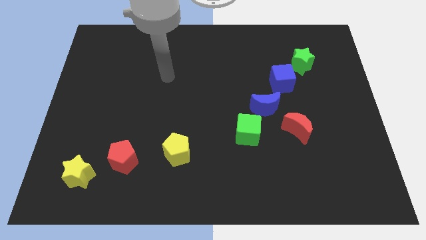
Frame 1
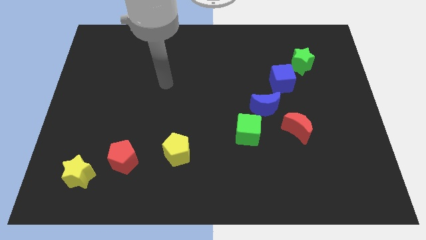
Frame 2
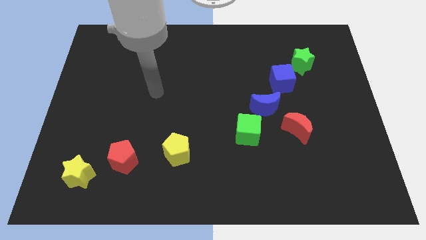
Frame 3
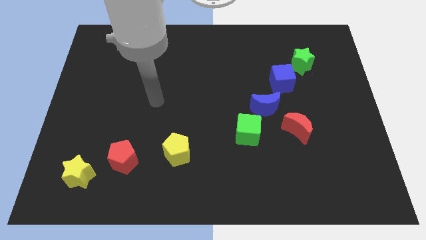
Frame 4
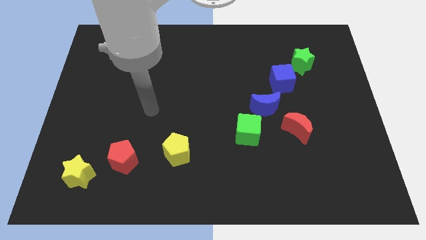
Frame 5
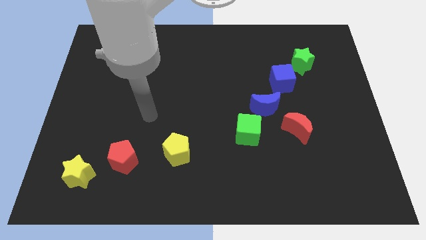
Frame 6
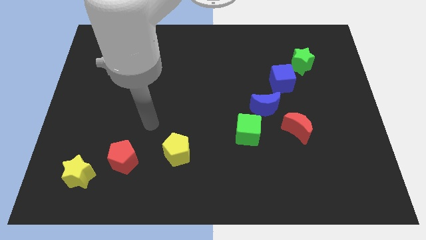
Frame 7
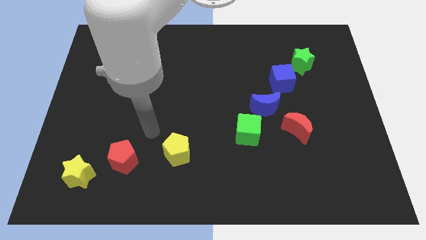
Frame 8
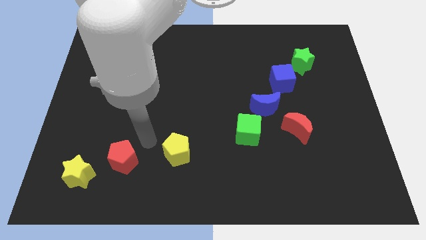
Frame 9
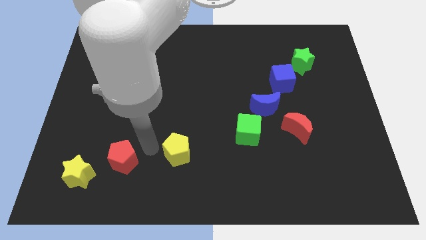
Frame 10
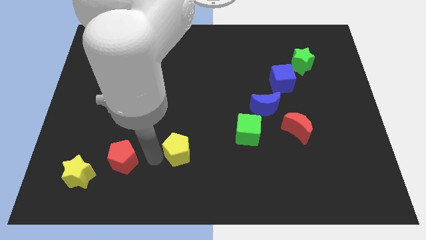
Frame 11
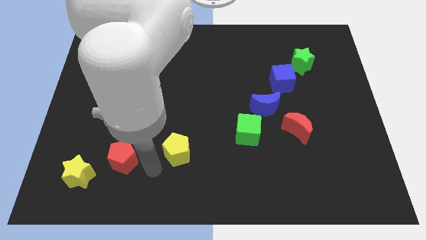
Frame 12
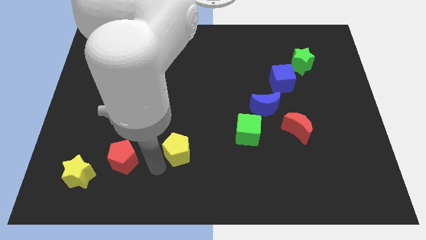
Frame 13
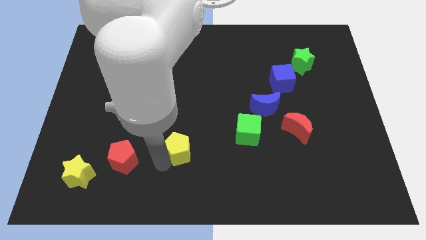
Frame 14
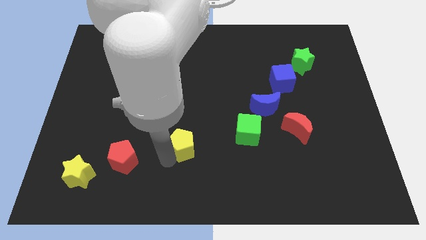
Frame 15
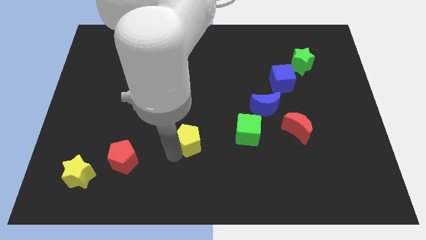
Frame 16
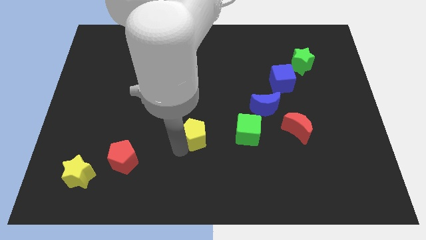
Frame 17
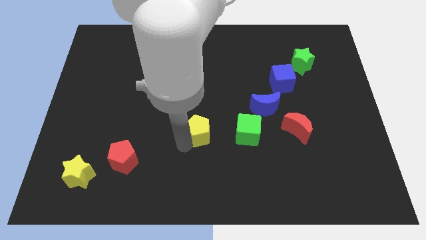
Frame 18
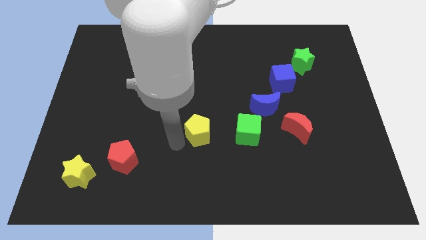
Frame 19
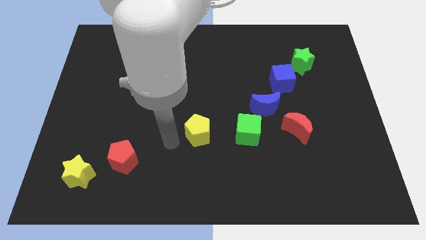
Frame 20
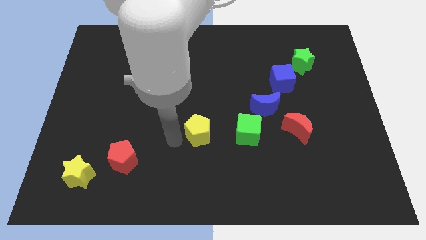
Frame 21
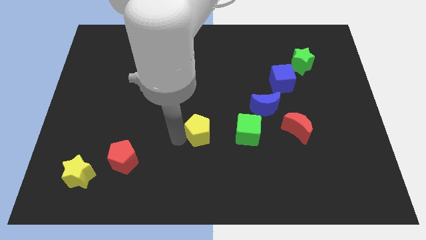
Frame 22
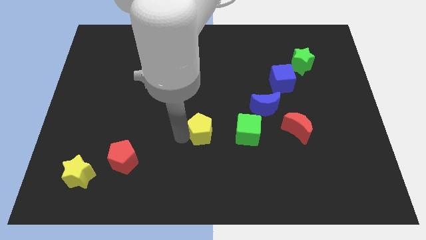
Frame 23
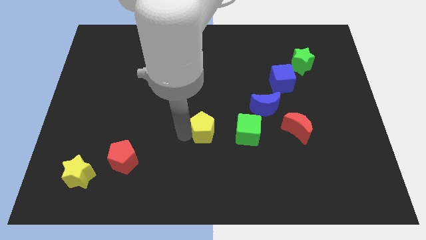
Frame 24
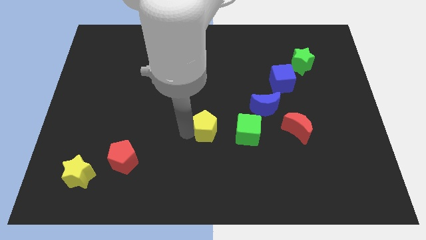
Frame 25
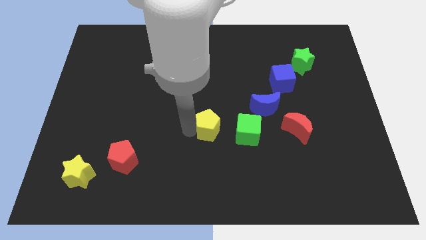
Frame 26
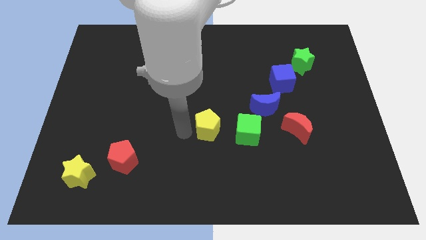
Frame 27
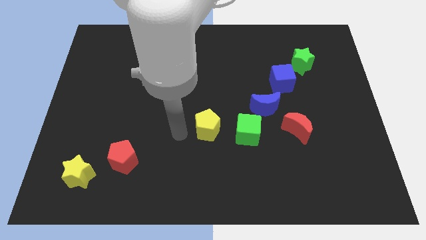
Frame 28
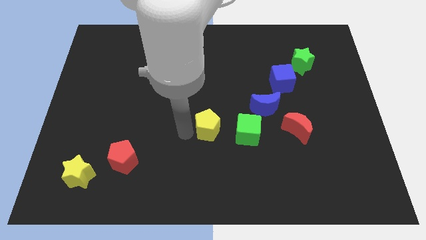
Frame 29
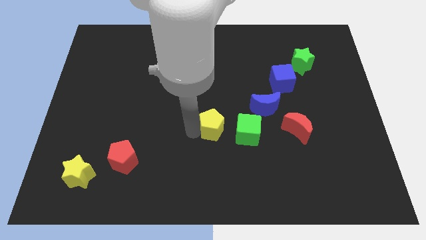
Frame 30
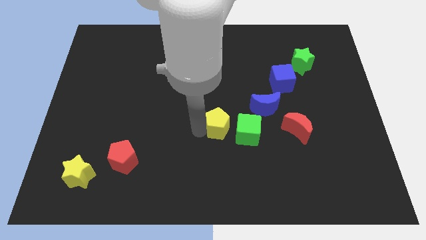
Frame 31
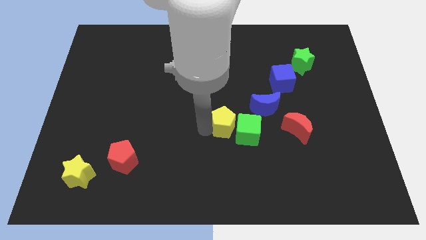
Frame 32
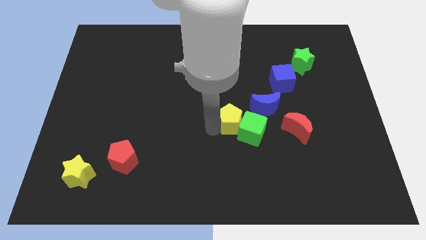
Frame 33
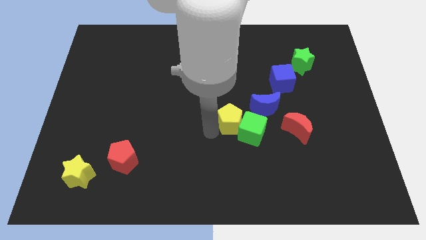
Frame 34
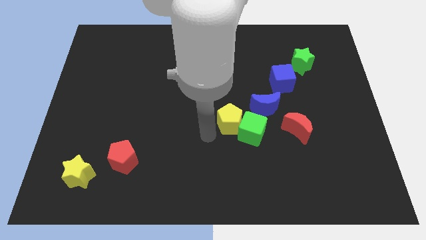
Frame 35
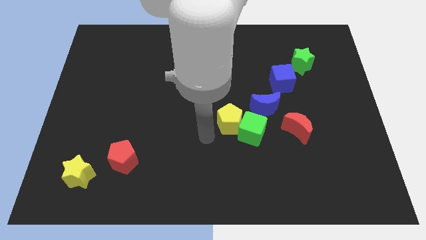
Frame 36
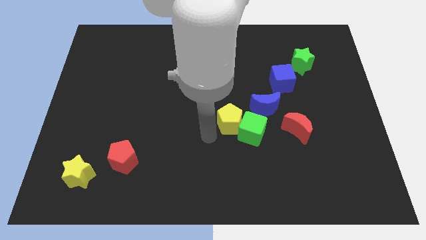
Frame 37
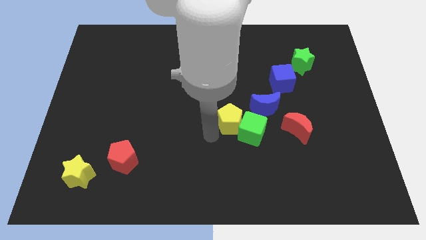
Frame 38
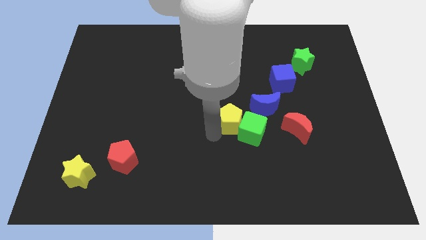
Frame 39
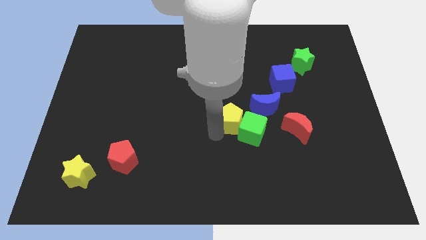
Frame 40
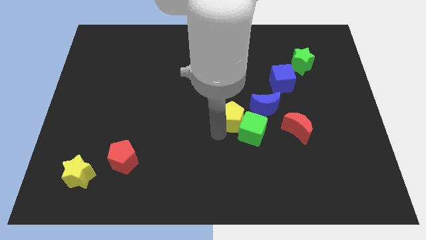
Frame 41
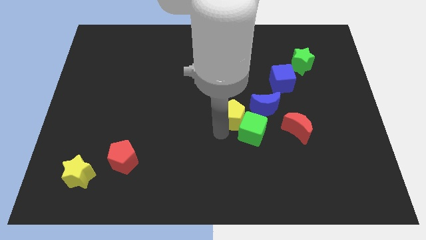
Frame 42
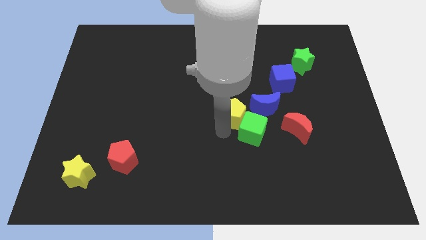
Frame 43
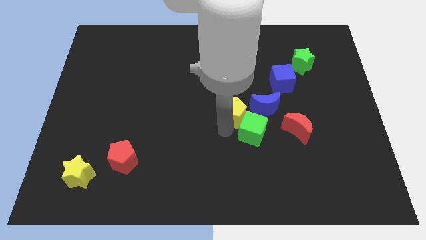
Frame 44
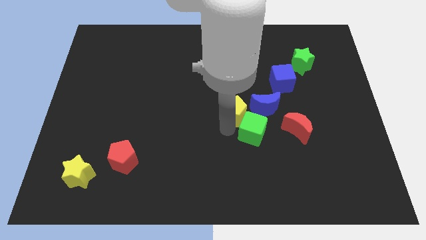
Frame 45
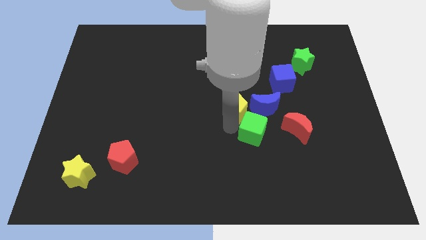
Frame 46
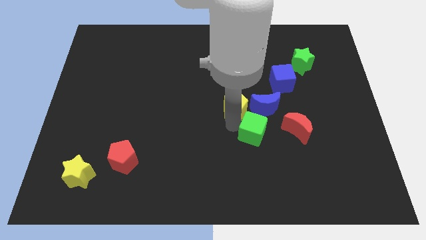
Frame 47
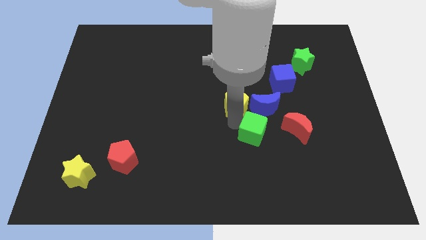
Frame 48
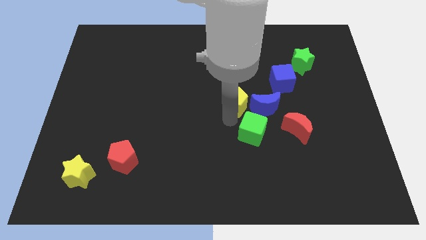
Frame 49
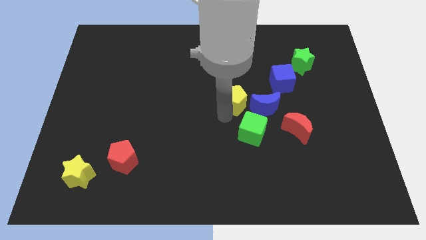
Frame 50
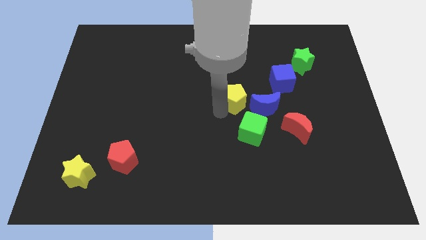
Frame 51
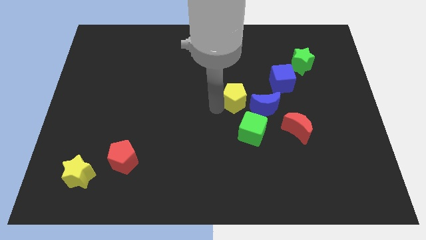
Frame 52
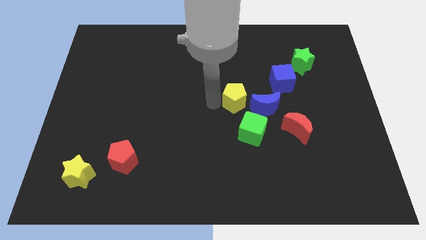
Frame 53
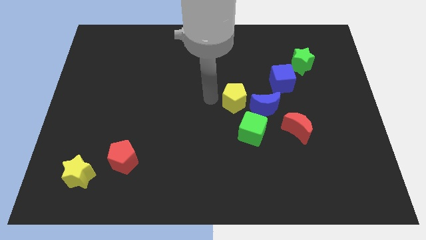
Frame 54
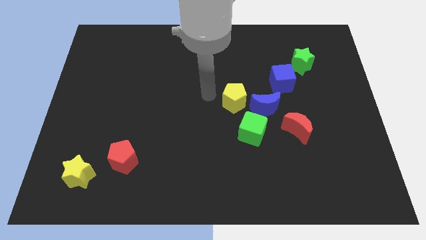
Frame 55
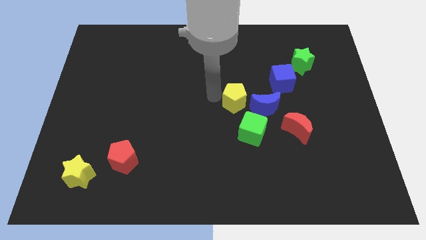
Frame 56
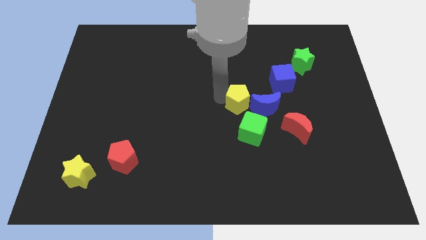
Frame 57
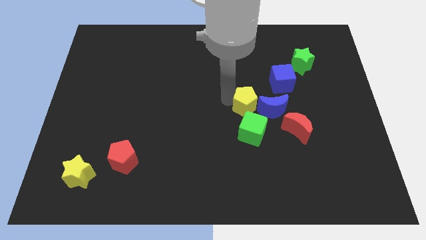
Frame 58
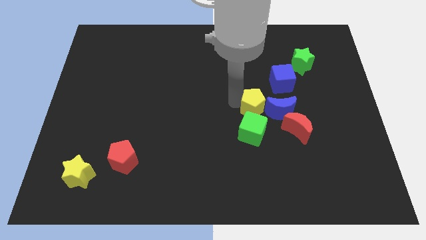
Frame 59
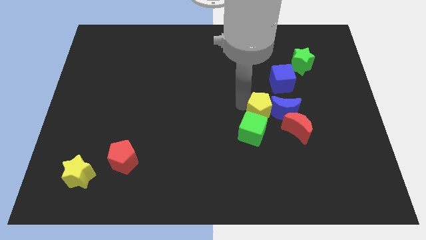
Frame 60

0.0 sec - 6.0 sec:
put the yellow pentagon close to the blue moon

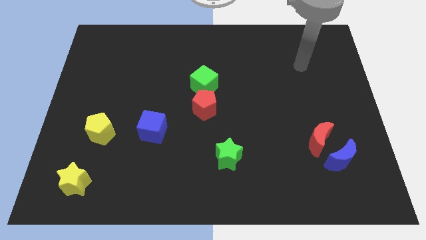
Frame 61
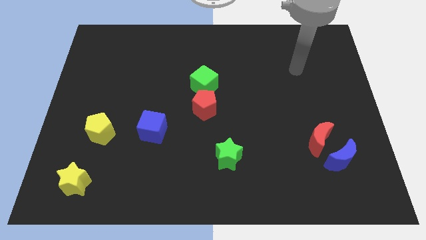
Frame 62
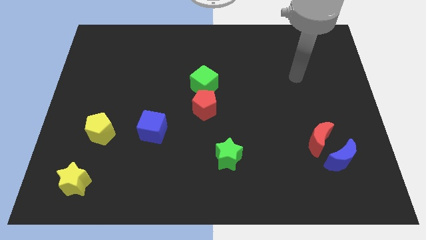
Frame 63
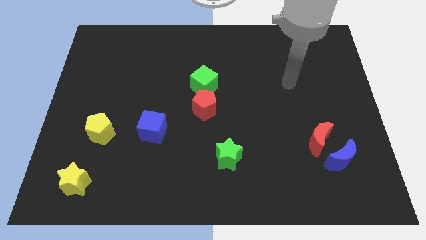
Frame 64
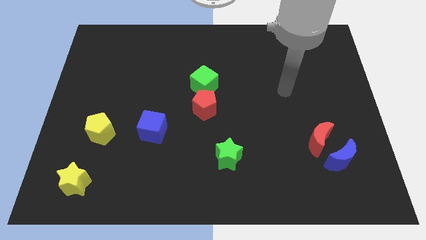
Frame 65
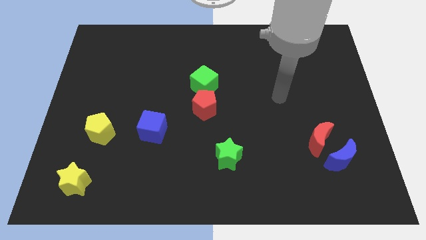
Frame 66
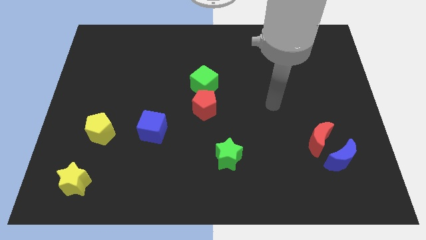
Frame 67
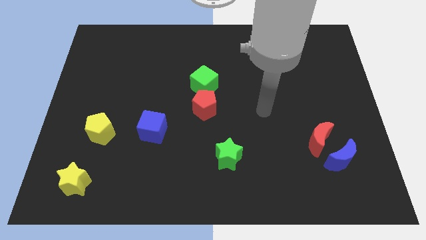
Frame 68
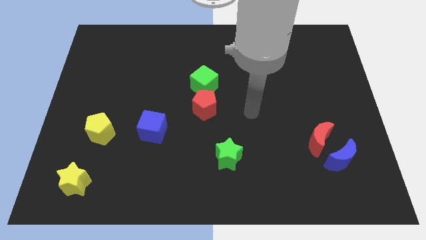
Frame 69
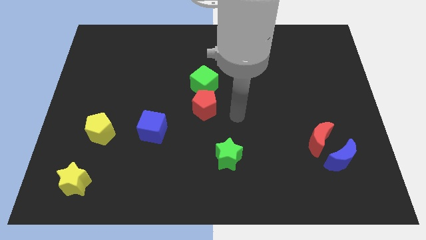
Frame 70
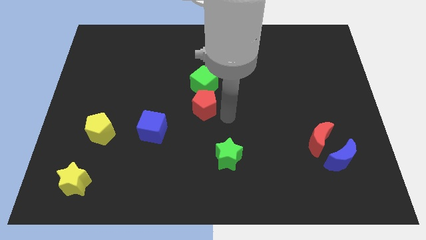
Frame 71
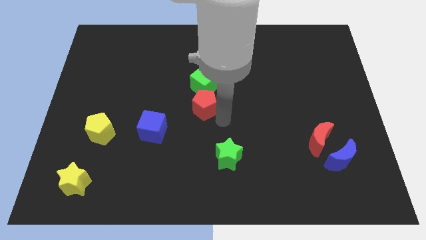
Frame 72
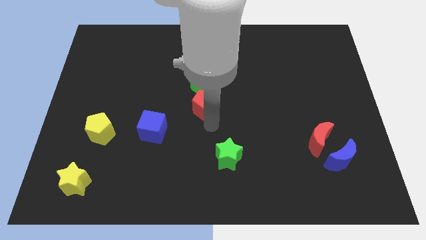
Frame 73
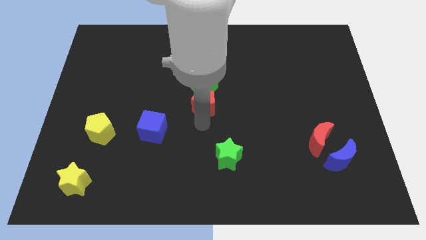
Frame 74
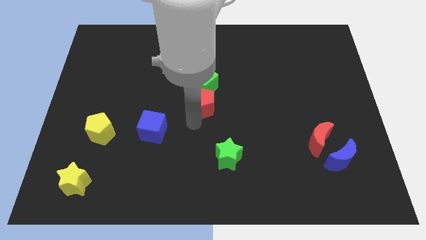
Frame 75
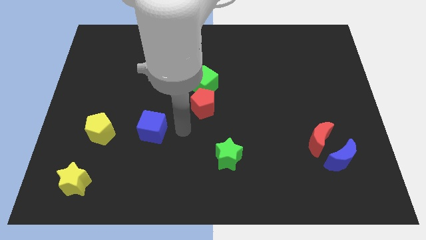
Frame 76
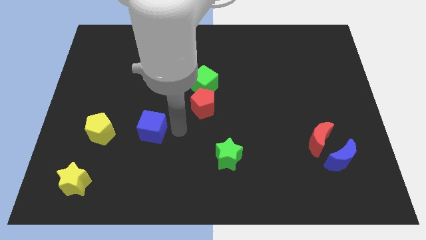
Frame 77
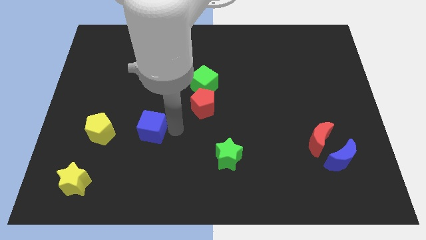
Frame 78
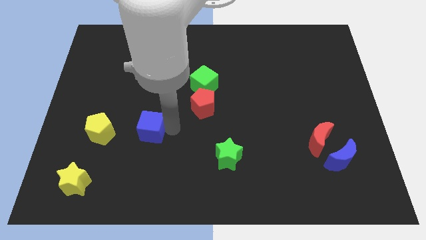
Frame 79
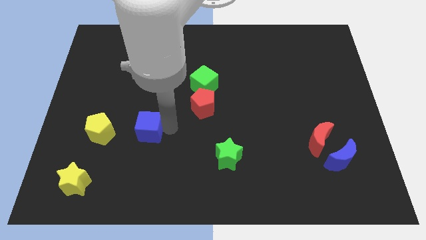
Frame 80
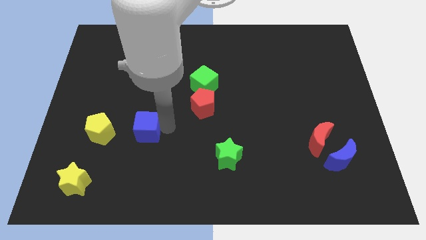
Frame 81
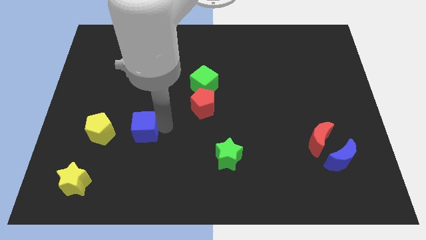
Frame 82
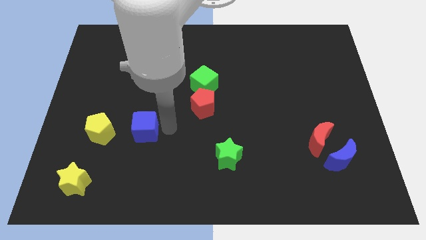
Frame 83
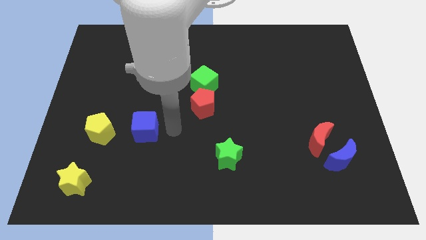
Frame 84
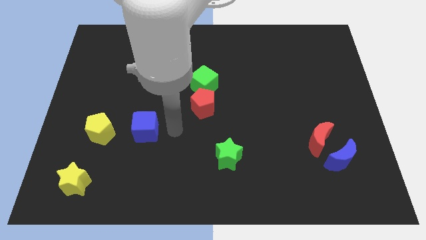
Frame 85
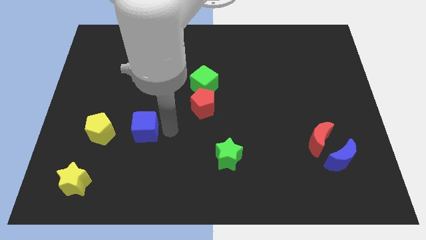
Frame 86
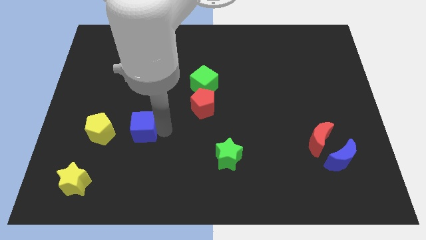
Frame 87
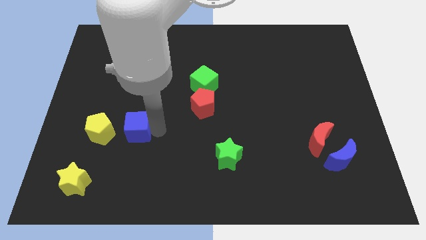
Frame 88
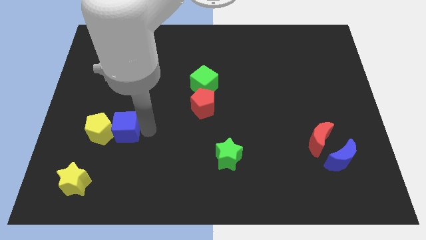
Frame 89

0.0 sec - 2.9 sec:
put the blue cube next to the yellow pentagon
